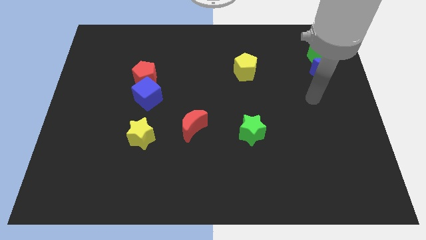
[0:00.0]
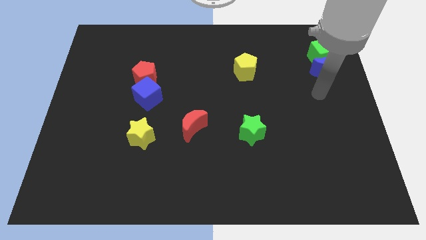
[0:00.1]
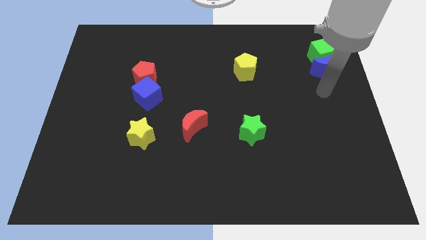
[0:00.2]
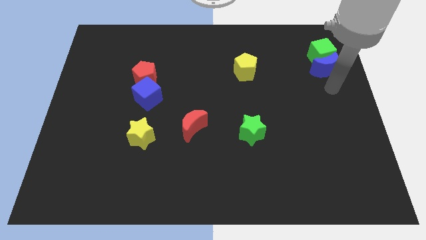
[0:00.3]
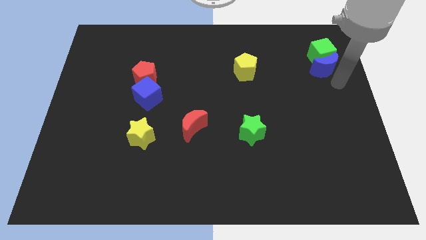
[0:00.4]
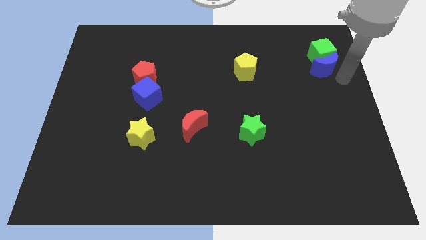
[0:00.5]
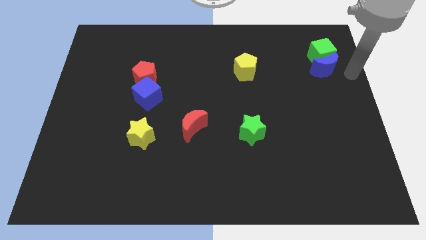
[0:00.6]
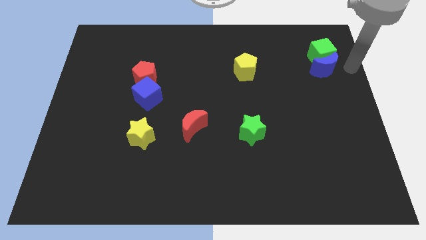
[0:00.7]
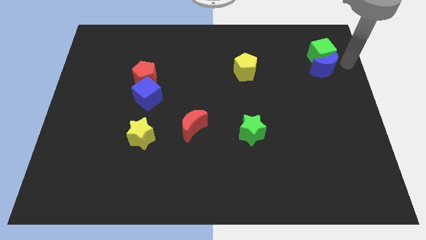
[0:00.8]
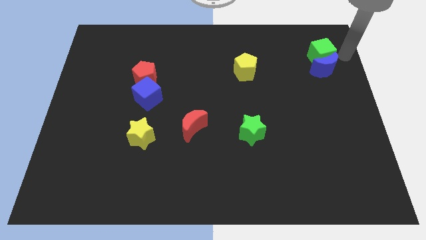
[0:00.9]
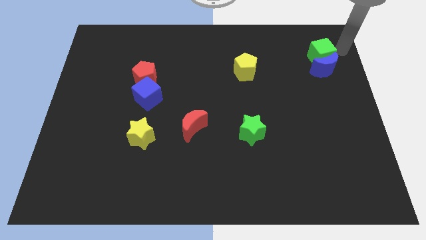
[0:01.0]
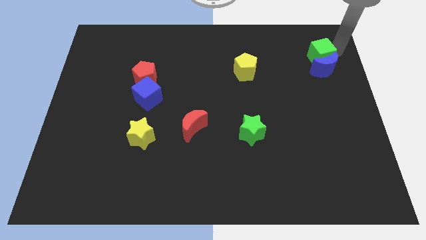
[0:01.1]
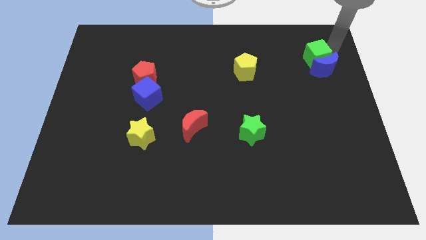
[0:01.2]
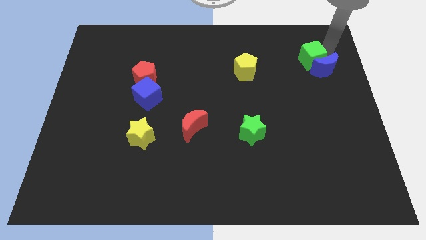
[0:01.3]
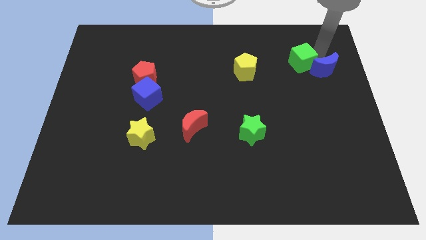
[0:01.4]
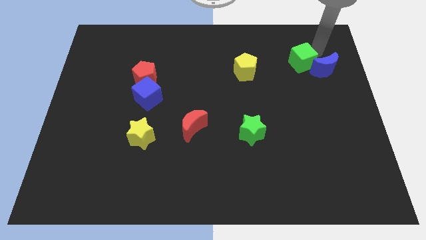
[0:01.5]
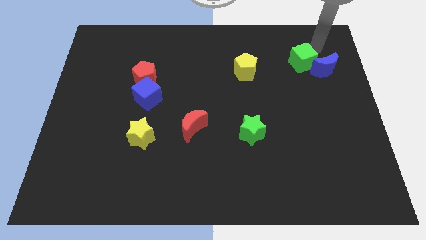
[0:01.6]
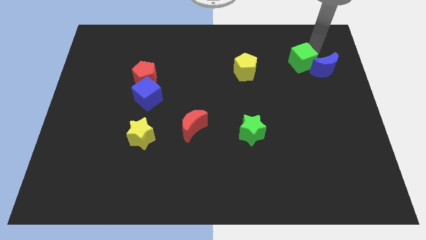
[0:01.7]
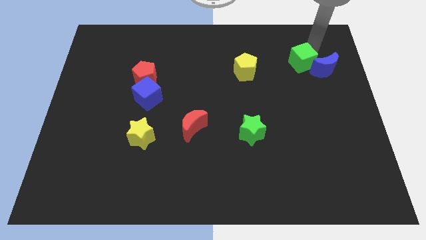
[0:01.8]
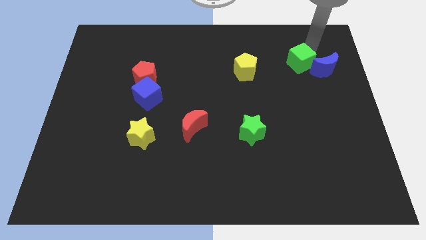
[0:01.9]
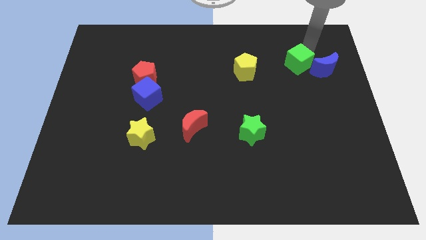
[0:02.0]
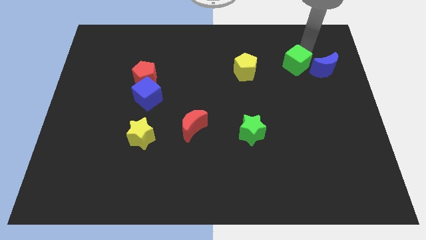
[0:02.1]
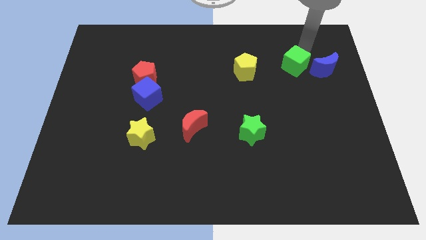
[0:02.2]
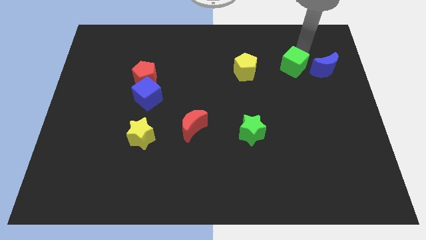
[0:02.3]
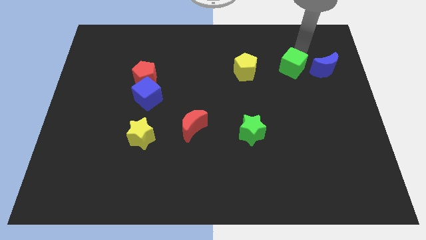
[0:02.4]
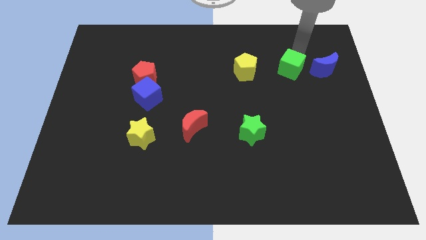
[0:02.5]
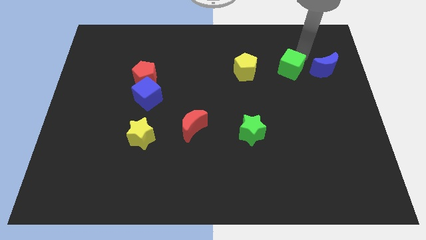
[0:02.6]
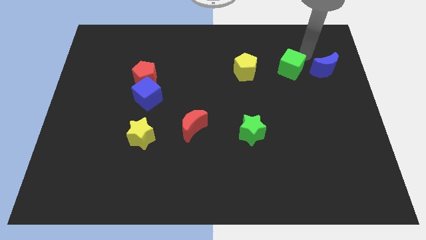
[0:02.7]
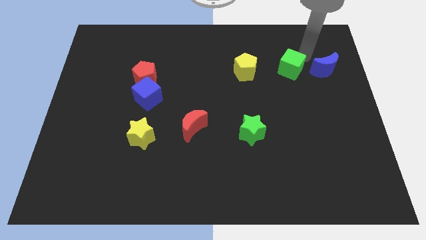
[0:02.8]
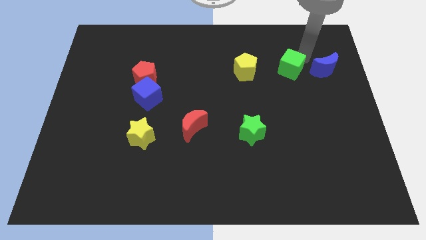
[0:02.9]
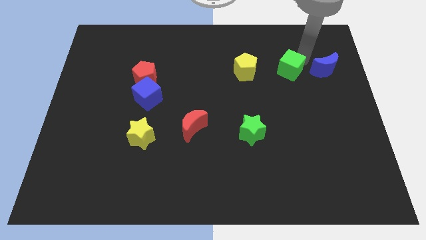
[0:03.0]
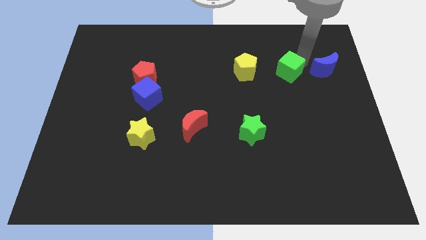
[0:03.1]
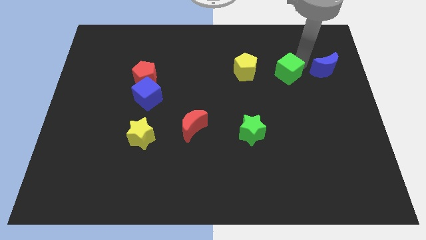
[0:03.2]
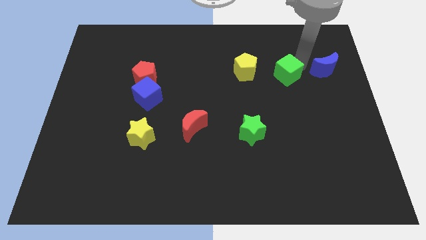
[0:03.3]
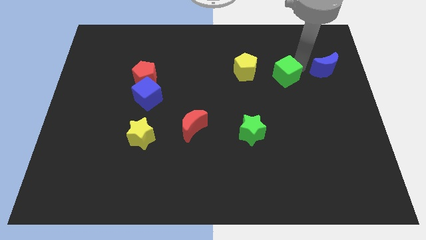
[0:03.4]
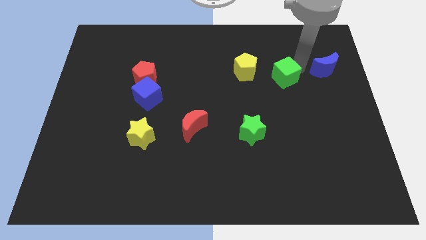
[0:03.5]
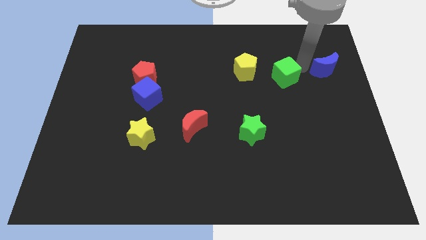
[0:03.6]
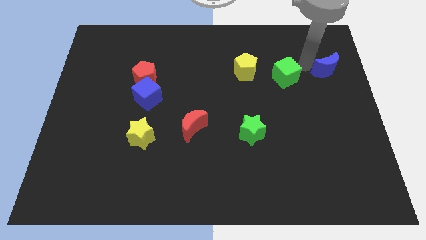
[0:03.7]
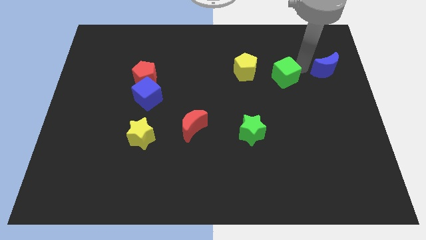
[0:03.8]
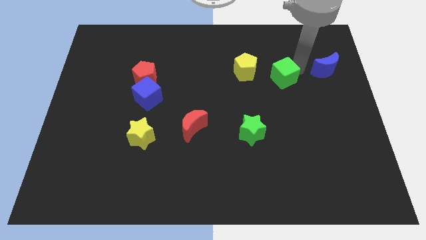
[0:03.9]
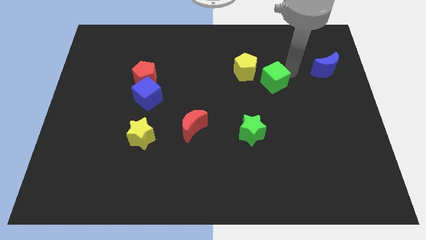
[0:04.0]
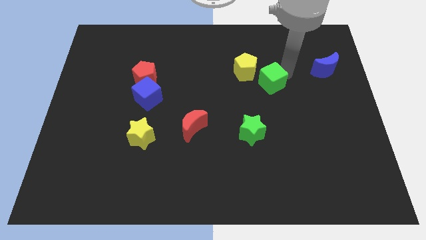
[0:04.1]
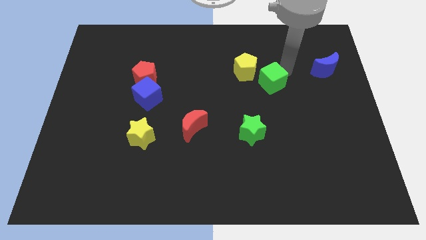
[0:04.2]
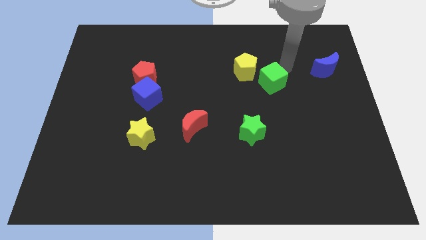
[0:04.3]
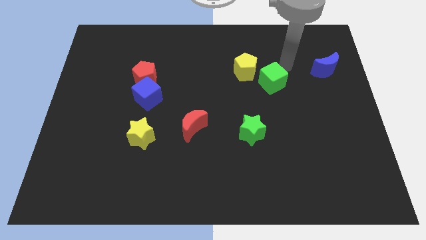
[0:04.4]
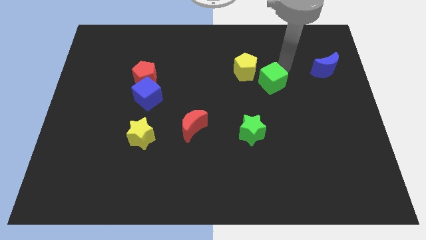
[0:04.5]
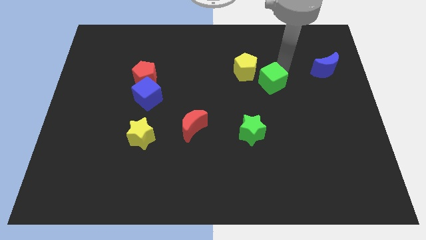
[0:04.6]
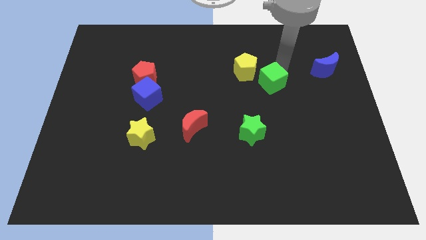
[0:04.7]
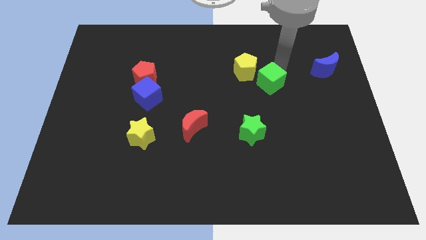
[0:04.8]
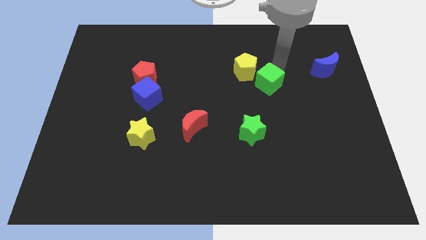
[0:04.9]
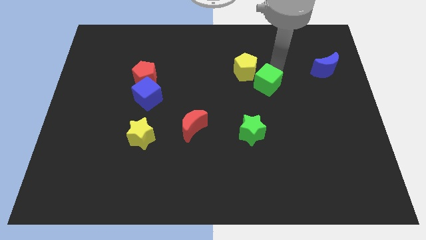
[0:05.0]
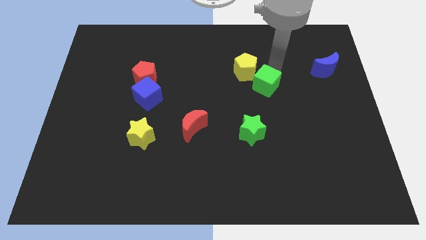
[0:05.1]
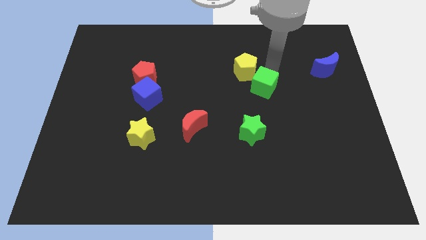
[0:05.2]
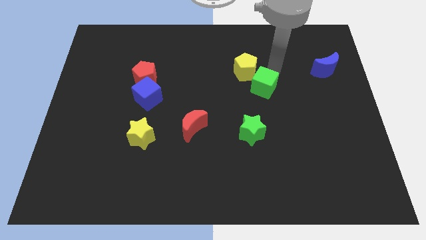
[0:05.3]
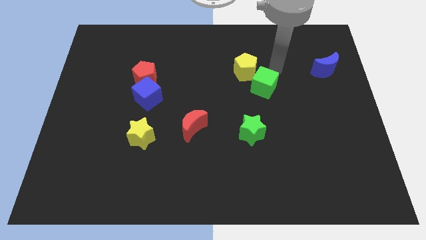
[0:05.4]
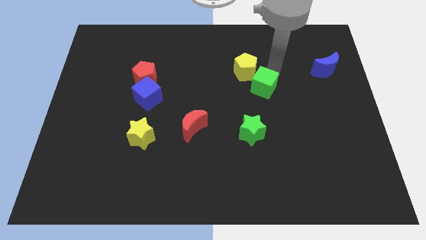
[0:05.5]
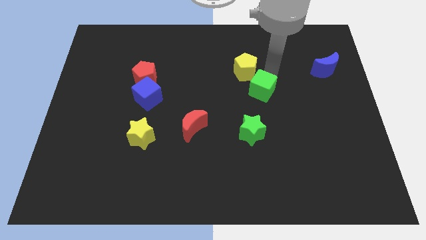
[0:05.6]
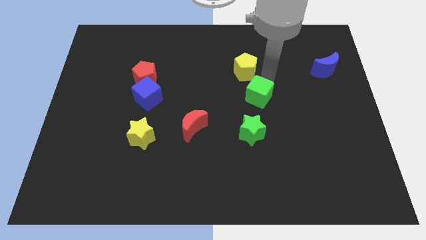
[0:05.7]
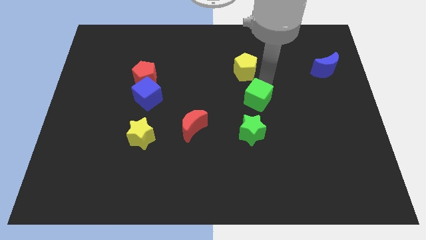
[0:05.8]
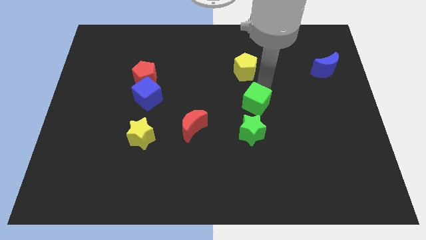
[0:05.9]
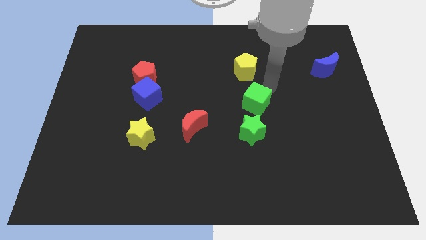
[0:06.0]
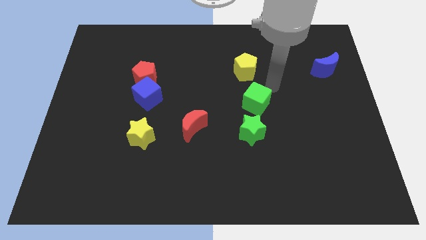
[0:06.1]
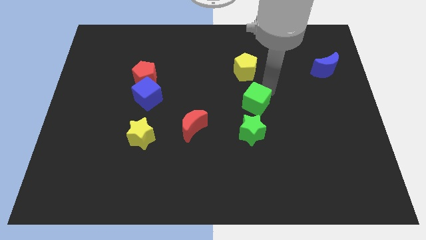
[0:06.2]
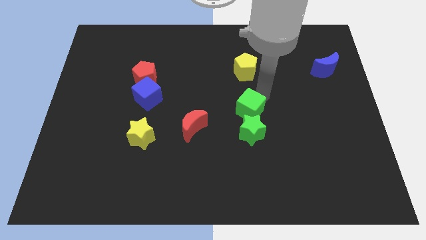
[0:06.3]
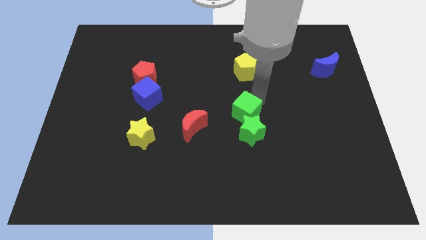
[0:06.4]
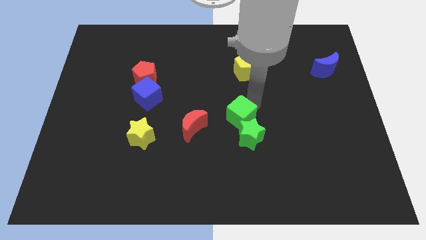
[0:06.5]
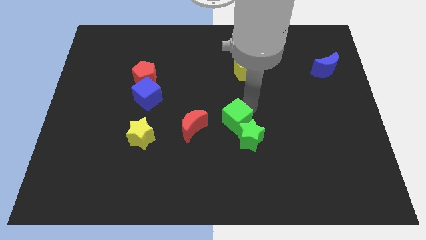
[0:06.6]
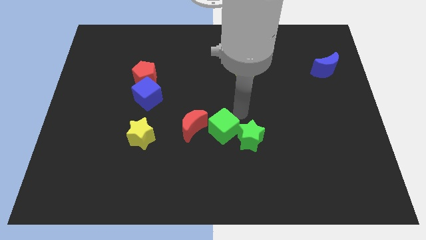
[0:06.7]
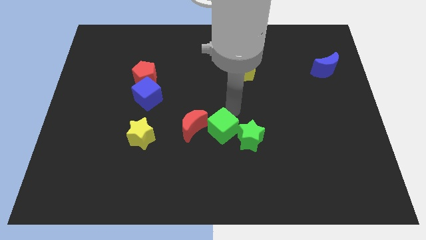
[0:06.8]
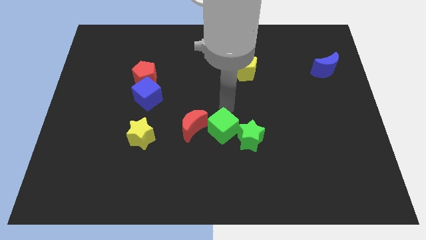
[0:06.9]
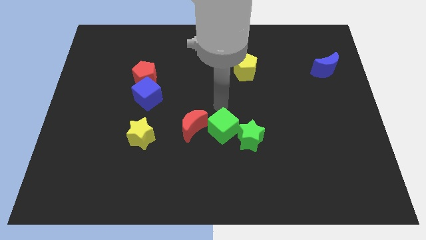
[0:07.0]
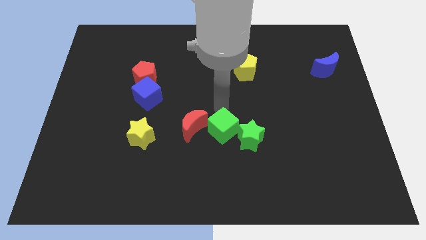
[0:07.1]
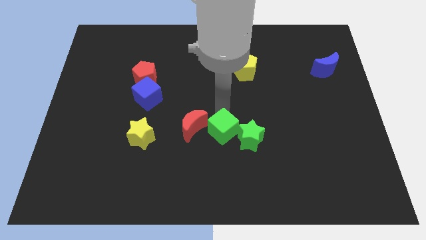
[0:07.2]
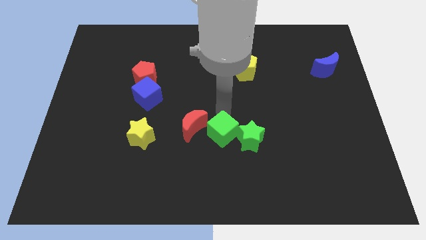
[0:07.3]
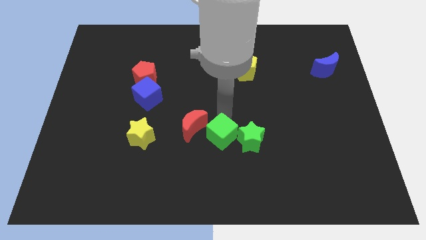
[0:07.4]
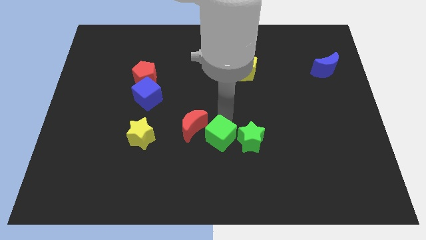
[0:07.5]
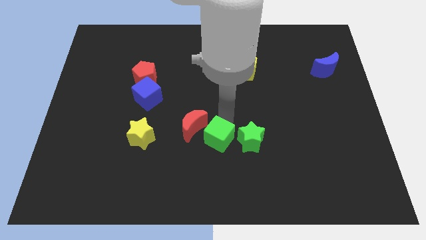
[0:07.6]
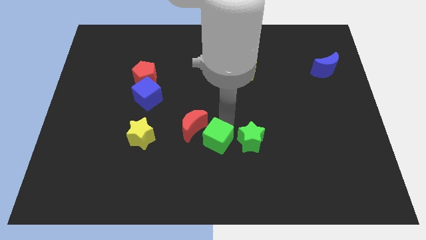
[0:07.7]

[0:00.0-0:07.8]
move the green cube to the bottom left side of the green star
